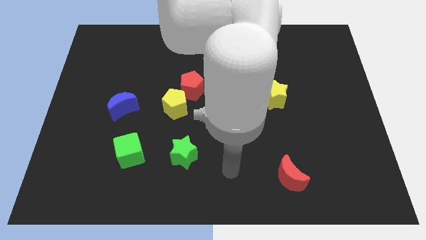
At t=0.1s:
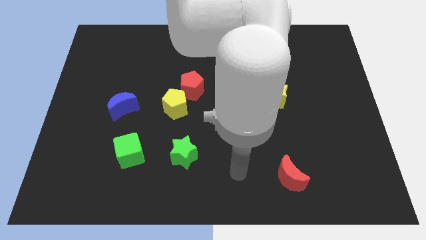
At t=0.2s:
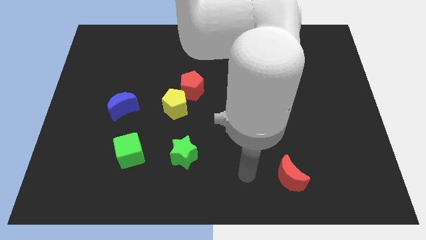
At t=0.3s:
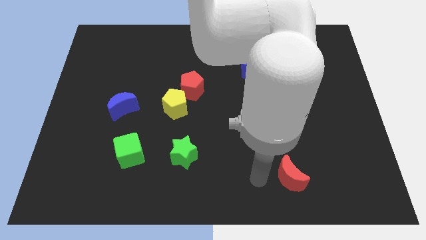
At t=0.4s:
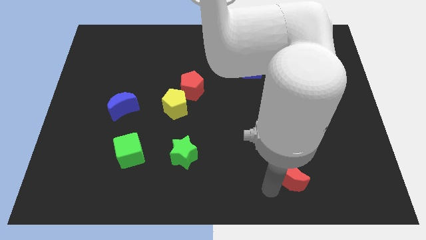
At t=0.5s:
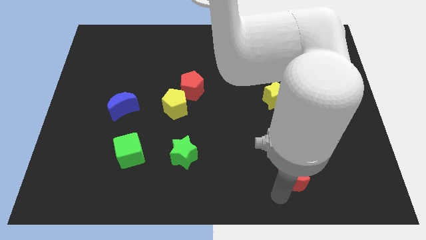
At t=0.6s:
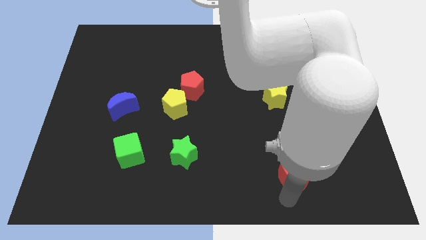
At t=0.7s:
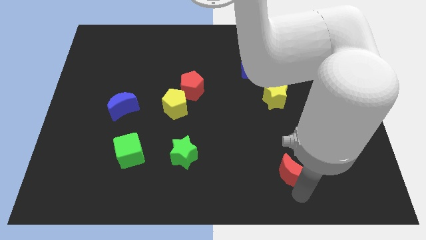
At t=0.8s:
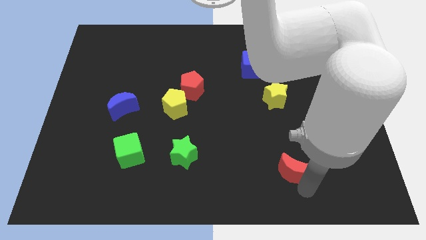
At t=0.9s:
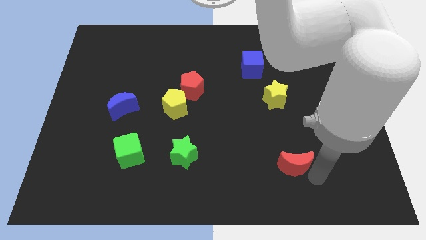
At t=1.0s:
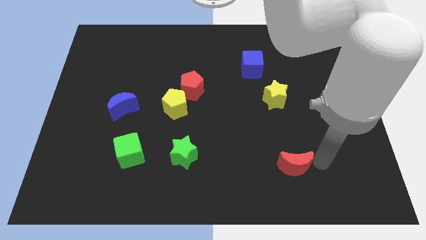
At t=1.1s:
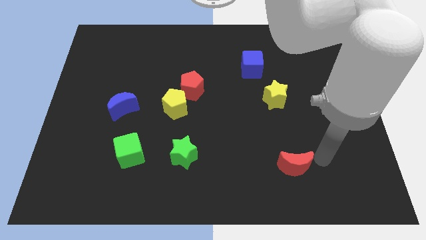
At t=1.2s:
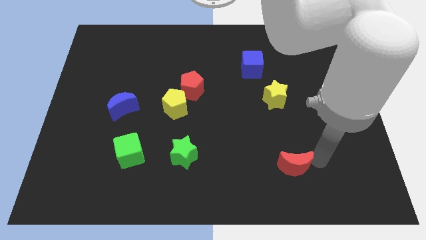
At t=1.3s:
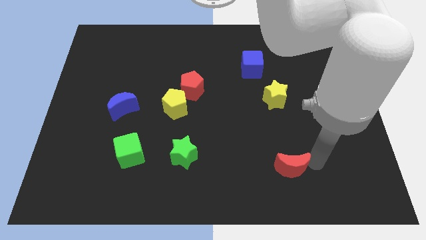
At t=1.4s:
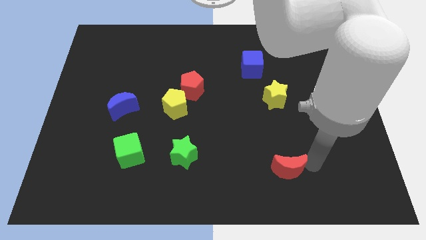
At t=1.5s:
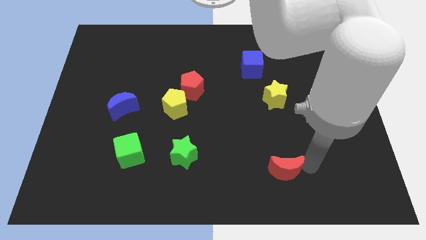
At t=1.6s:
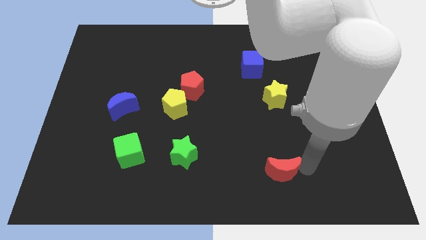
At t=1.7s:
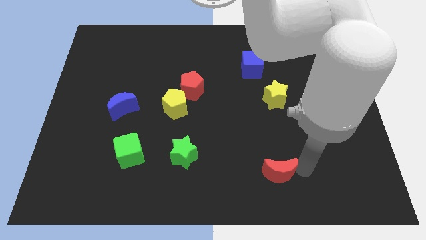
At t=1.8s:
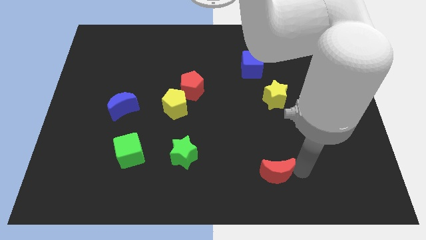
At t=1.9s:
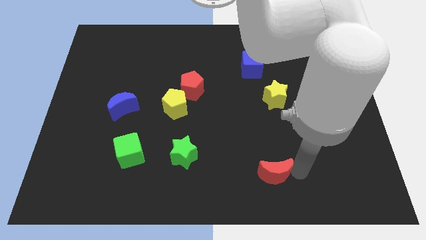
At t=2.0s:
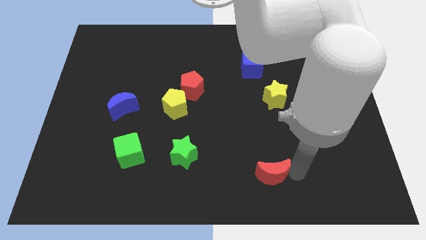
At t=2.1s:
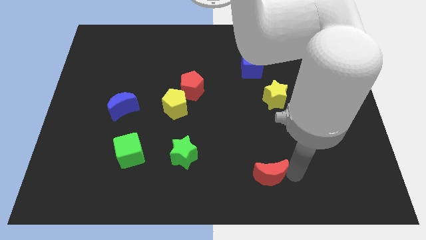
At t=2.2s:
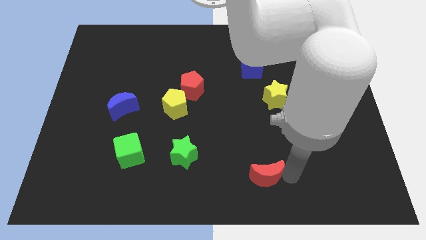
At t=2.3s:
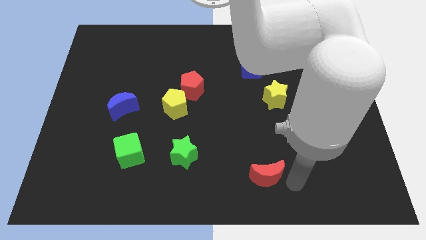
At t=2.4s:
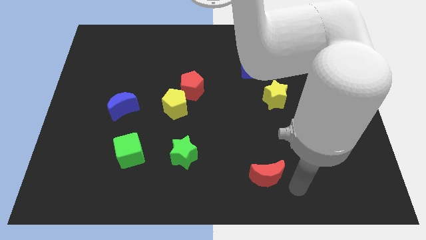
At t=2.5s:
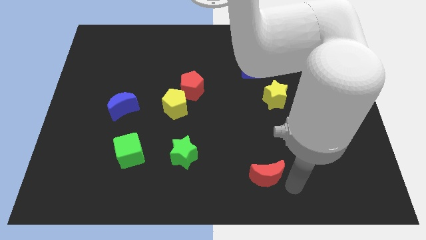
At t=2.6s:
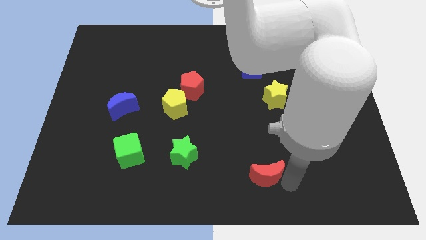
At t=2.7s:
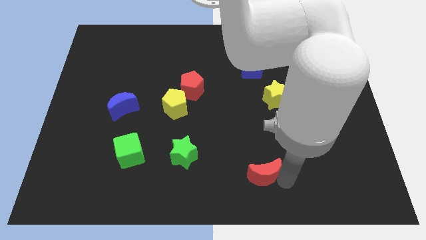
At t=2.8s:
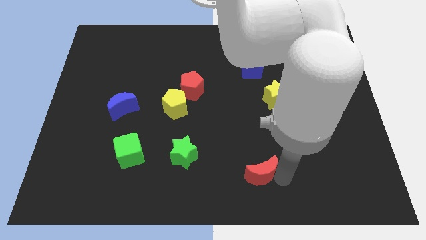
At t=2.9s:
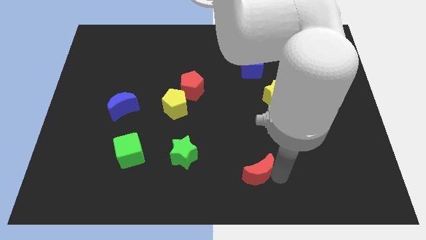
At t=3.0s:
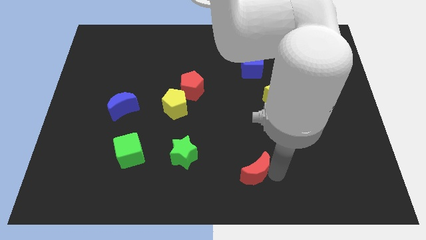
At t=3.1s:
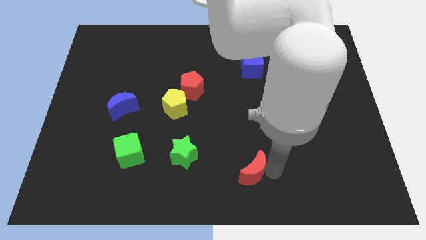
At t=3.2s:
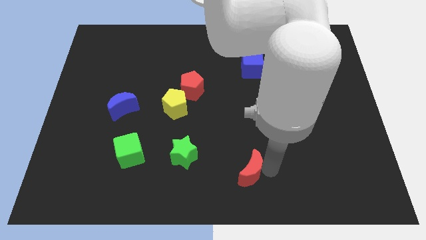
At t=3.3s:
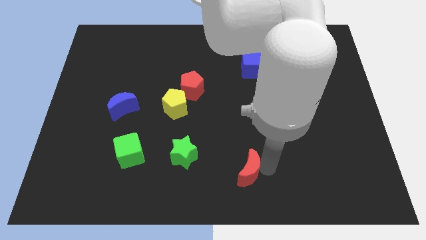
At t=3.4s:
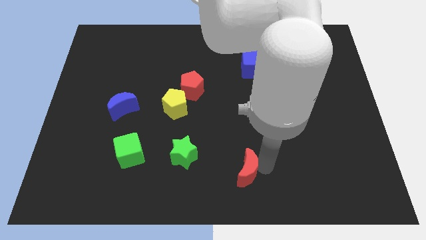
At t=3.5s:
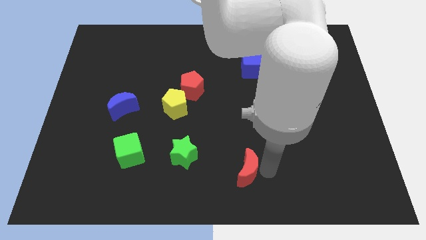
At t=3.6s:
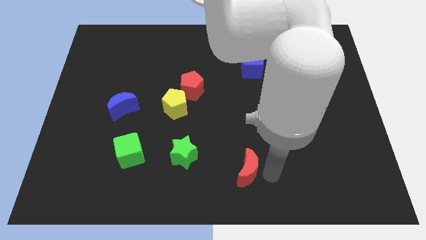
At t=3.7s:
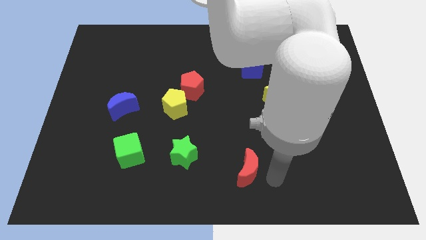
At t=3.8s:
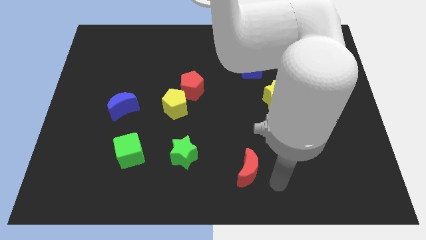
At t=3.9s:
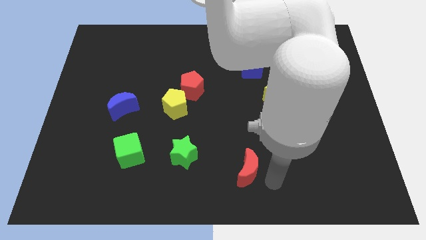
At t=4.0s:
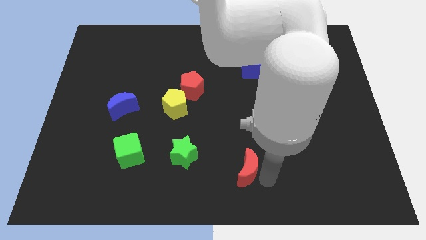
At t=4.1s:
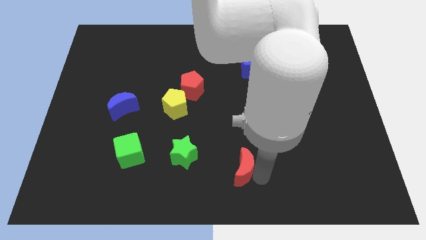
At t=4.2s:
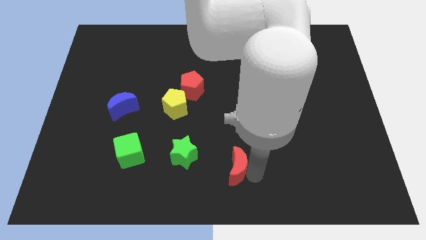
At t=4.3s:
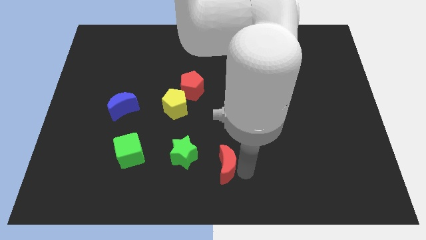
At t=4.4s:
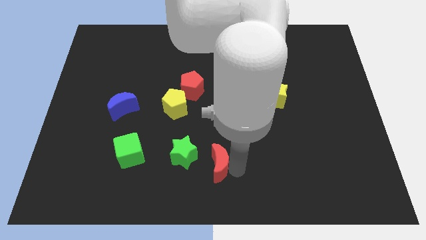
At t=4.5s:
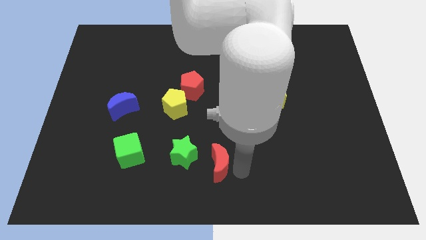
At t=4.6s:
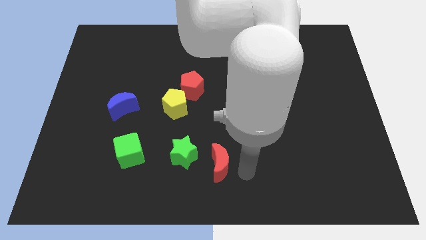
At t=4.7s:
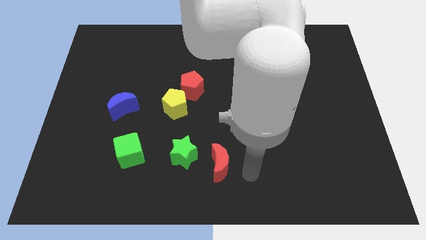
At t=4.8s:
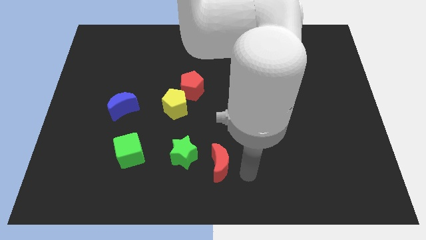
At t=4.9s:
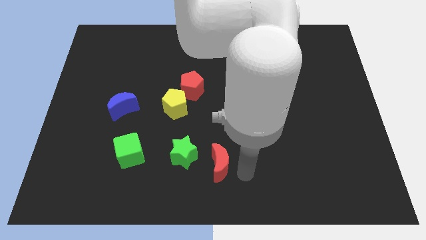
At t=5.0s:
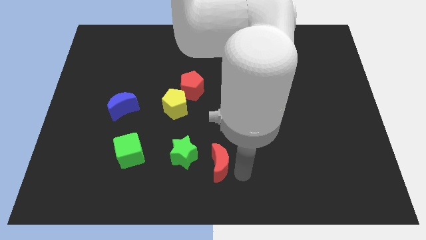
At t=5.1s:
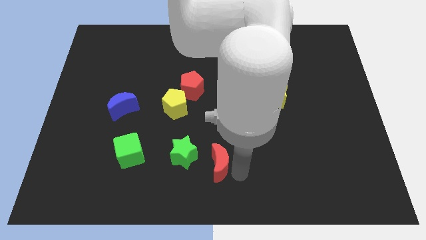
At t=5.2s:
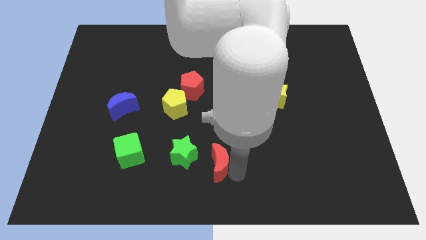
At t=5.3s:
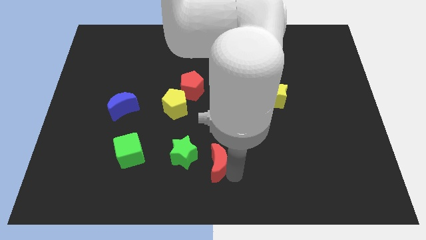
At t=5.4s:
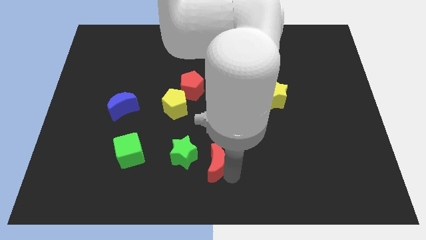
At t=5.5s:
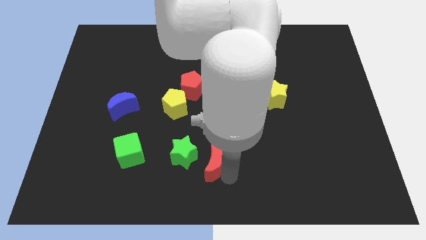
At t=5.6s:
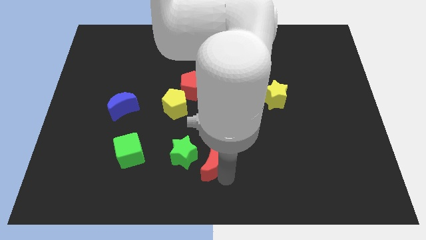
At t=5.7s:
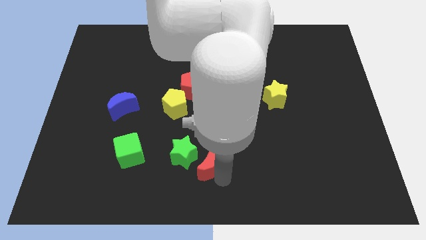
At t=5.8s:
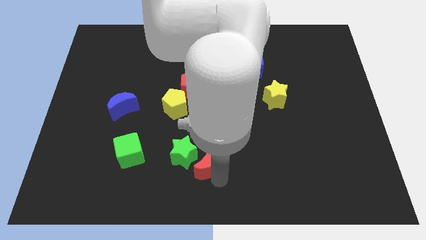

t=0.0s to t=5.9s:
move the red moon close to the green star

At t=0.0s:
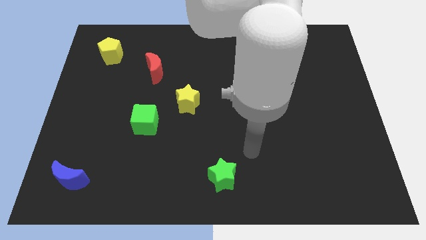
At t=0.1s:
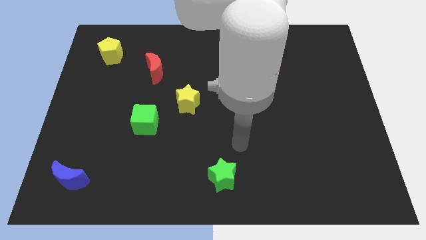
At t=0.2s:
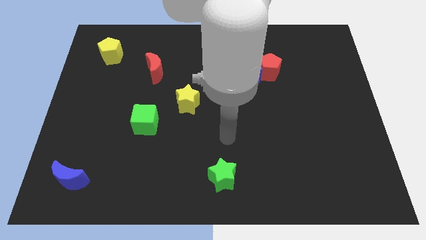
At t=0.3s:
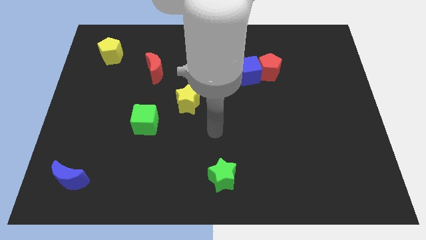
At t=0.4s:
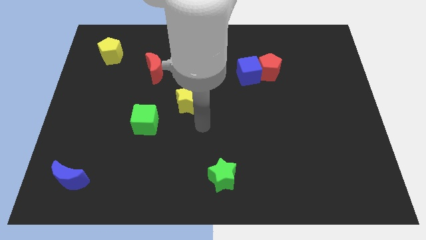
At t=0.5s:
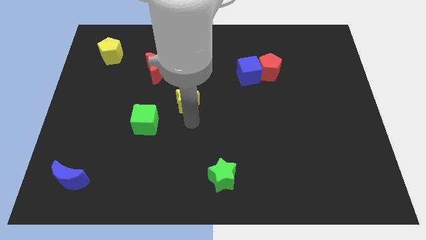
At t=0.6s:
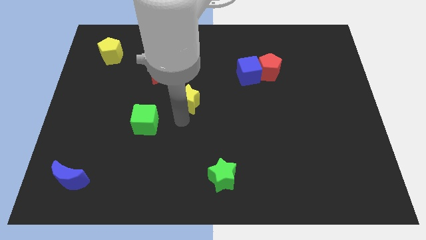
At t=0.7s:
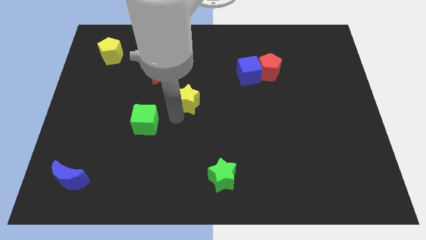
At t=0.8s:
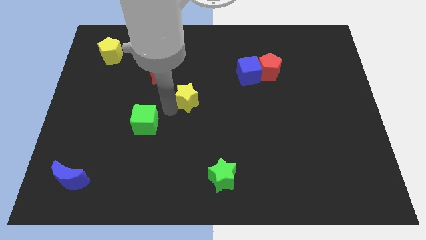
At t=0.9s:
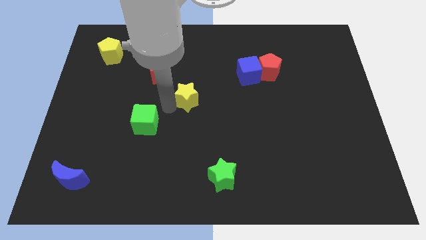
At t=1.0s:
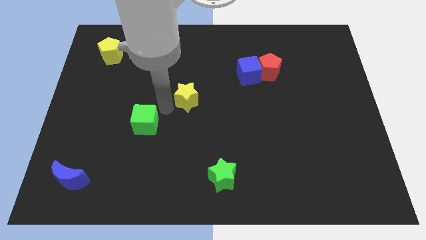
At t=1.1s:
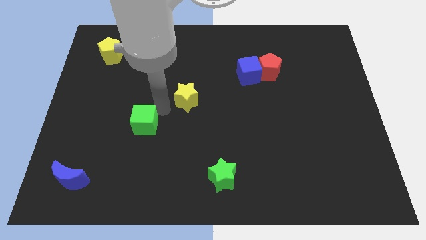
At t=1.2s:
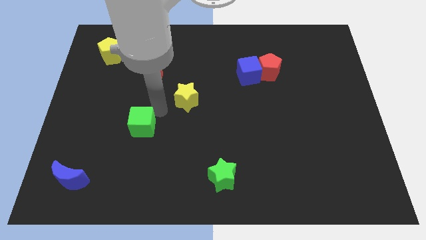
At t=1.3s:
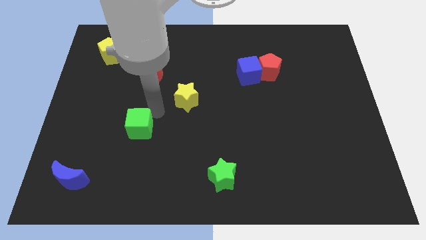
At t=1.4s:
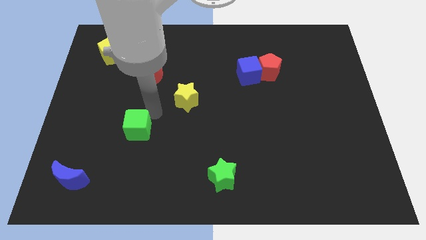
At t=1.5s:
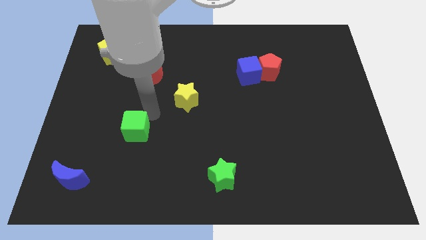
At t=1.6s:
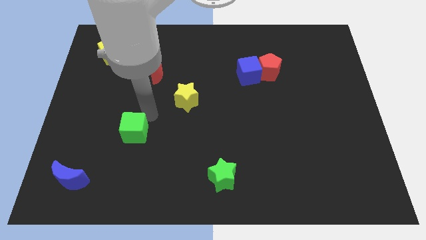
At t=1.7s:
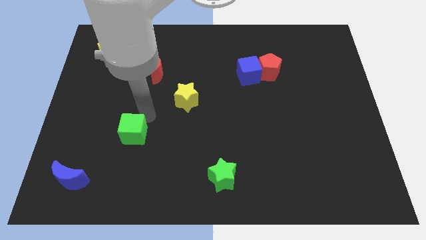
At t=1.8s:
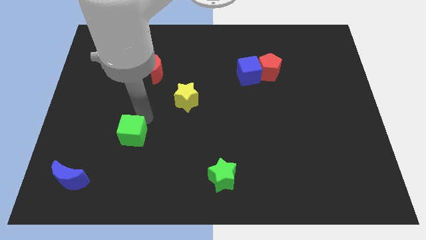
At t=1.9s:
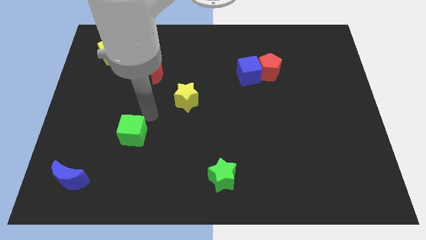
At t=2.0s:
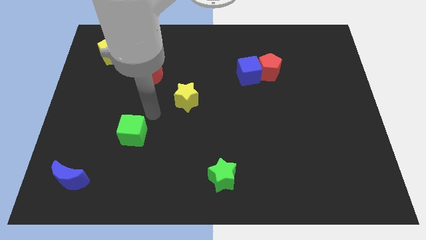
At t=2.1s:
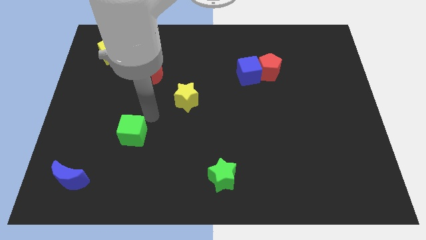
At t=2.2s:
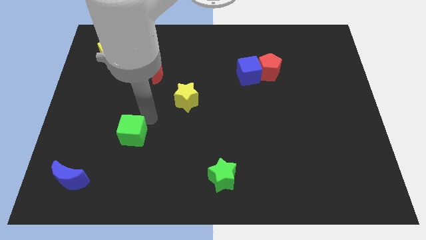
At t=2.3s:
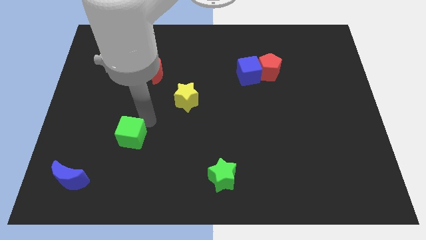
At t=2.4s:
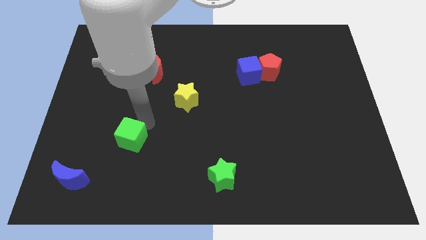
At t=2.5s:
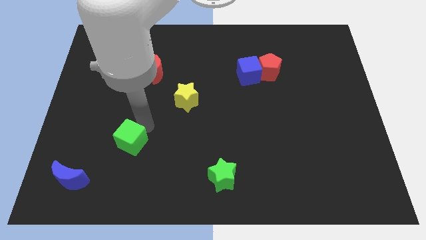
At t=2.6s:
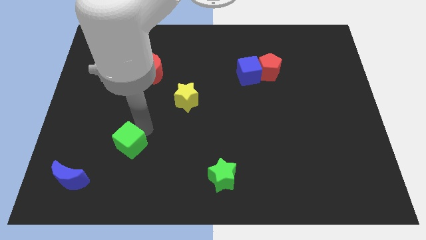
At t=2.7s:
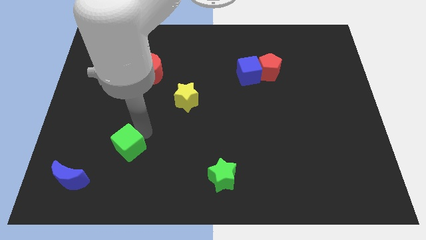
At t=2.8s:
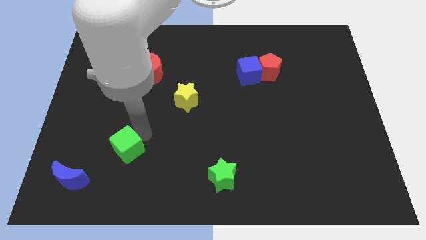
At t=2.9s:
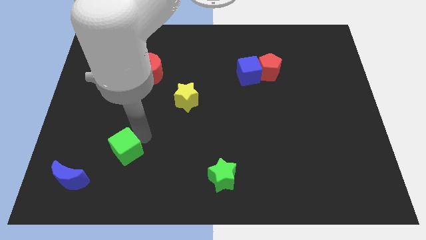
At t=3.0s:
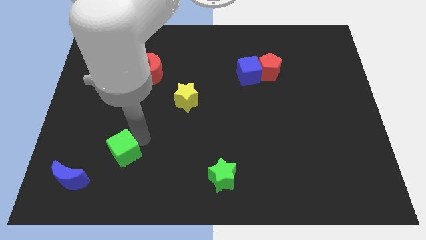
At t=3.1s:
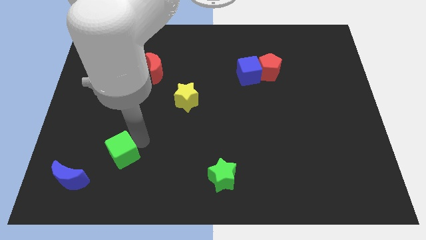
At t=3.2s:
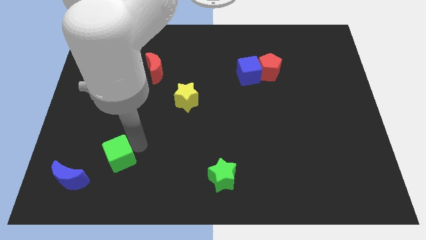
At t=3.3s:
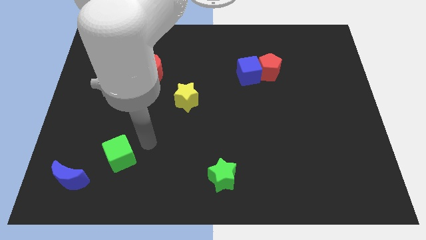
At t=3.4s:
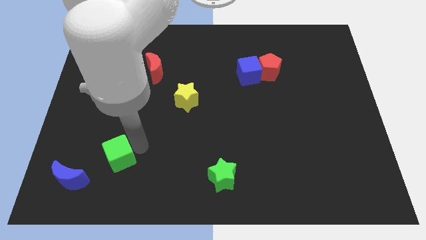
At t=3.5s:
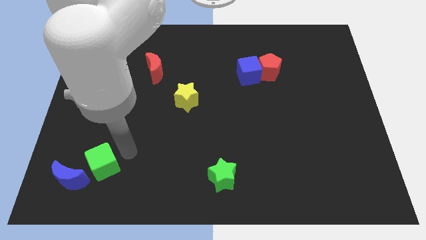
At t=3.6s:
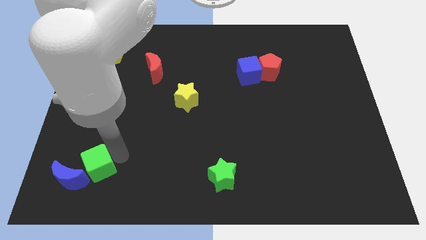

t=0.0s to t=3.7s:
move the green cube to the blue moon
